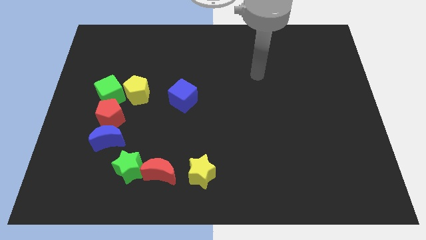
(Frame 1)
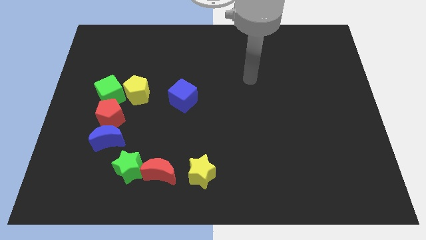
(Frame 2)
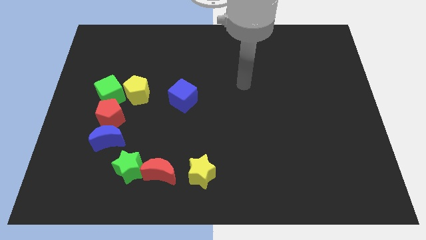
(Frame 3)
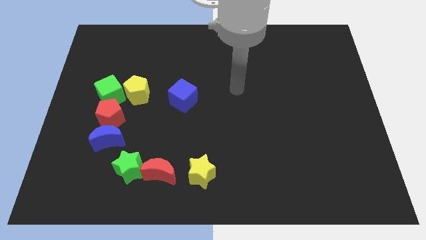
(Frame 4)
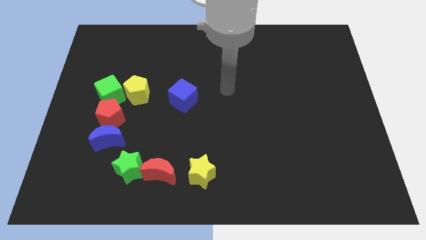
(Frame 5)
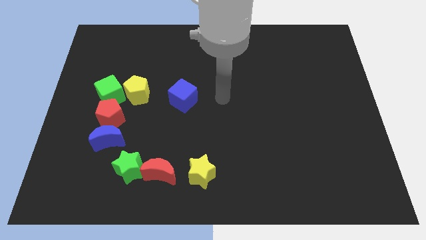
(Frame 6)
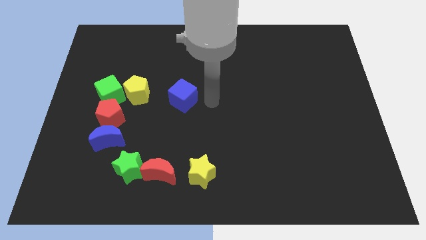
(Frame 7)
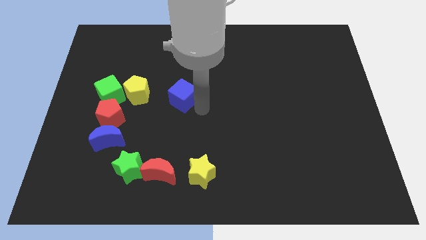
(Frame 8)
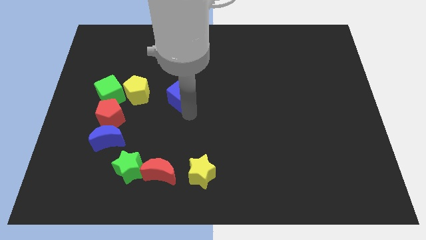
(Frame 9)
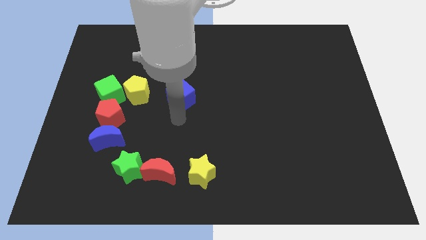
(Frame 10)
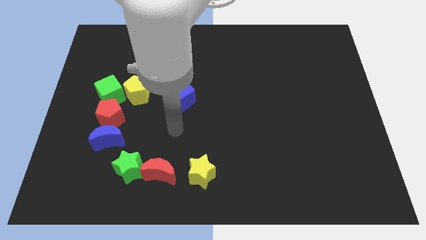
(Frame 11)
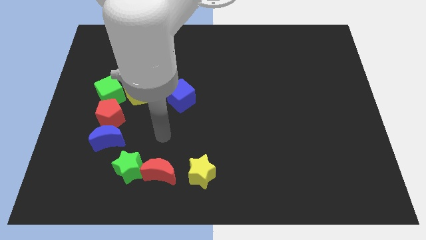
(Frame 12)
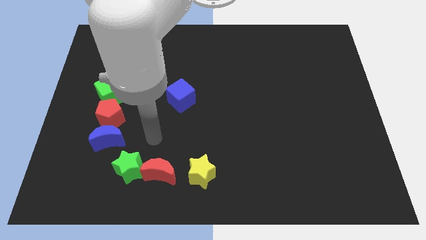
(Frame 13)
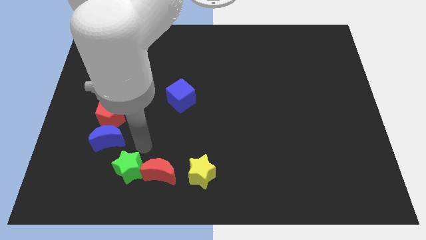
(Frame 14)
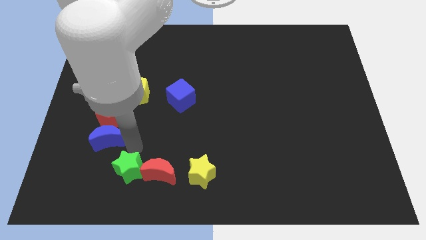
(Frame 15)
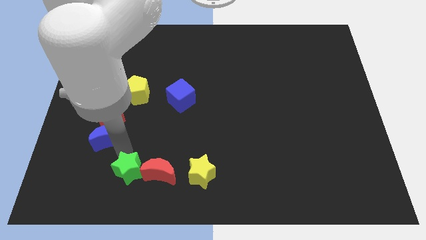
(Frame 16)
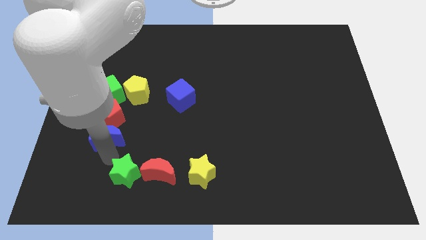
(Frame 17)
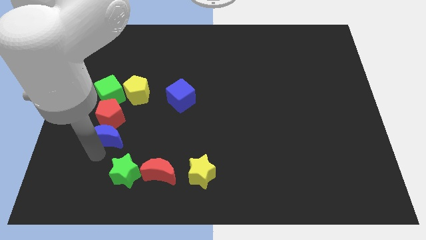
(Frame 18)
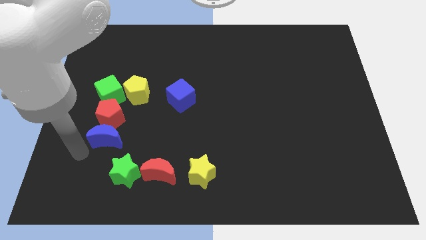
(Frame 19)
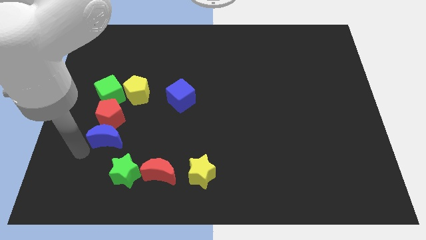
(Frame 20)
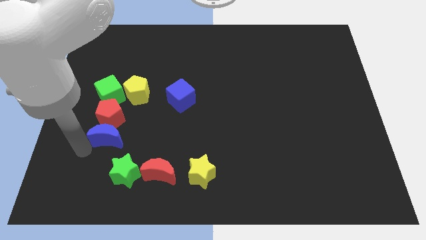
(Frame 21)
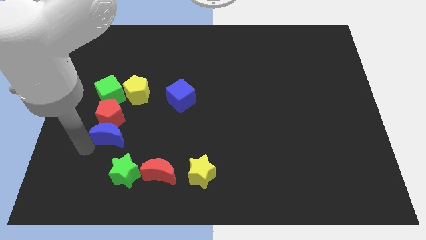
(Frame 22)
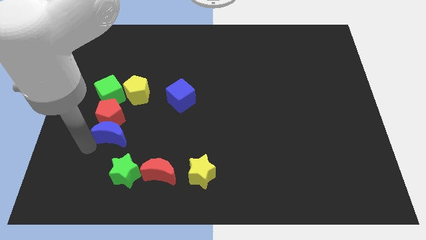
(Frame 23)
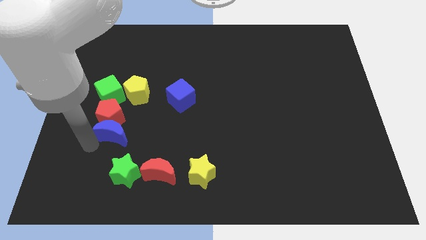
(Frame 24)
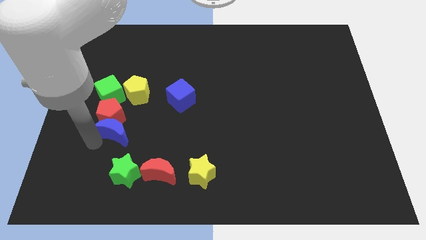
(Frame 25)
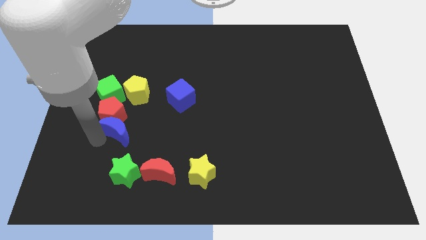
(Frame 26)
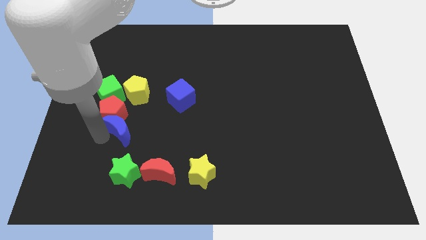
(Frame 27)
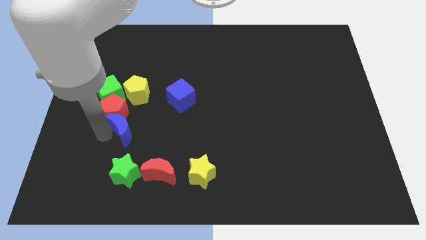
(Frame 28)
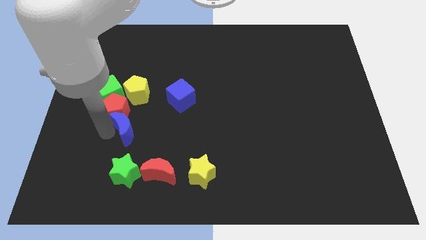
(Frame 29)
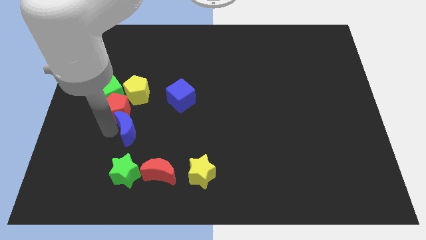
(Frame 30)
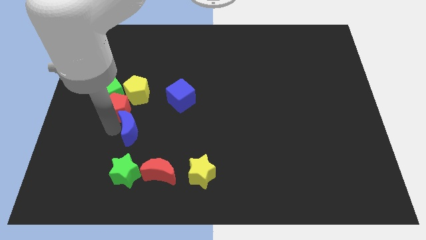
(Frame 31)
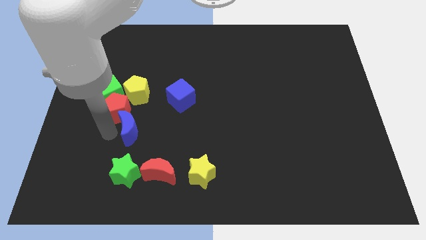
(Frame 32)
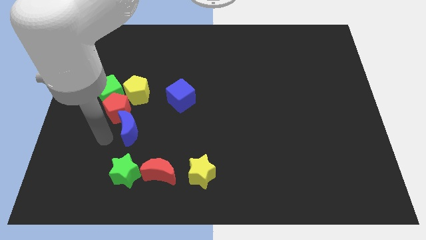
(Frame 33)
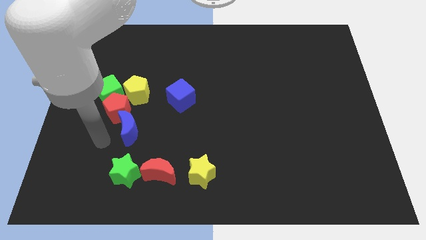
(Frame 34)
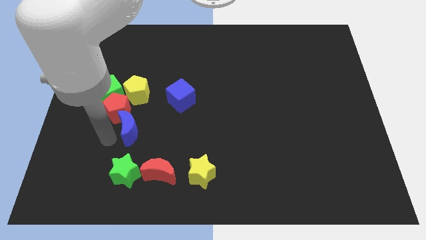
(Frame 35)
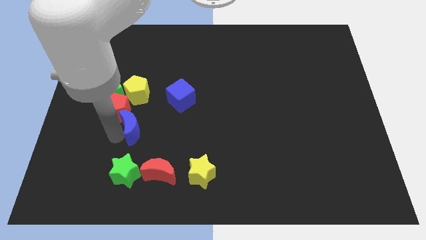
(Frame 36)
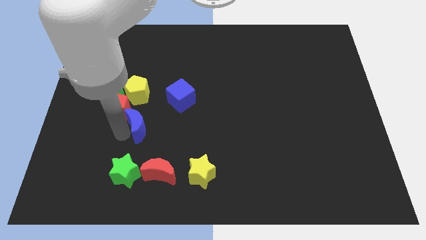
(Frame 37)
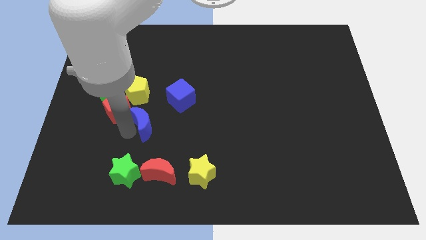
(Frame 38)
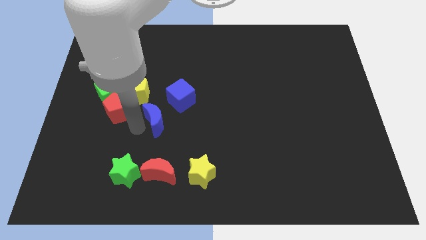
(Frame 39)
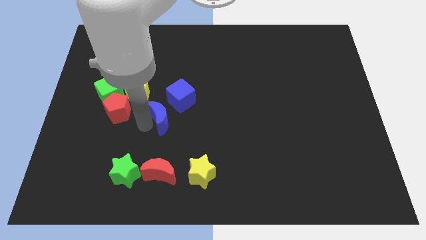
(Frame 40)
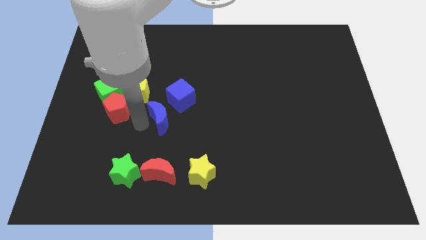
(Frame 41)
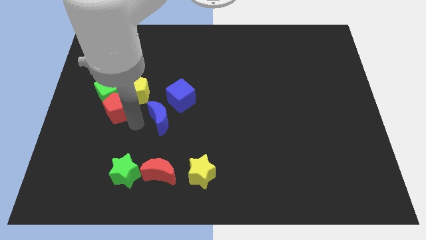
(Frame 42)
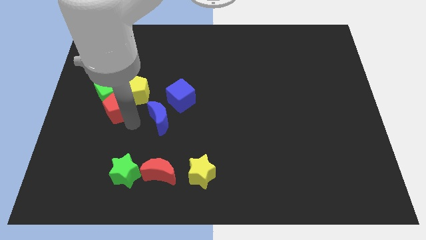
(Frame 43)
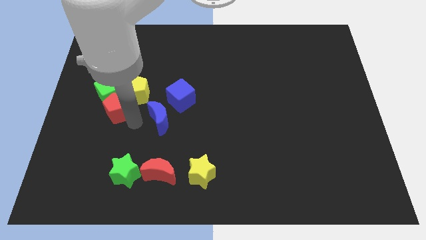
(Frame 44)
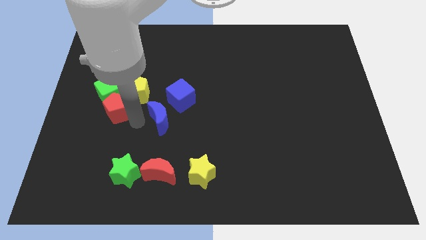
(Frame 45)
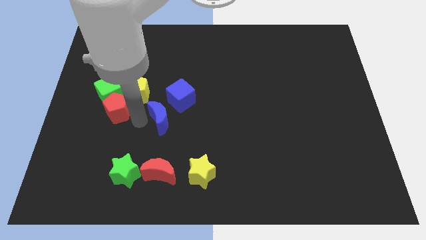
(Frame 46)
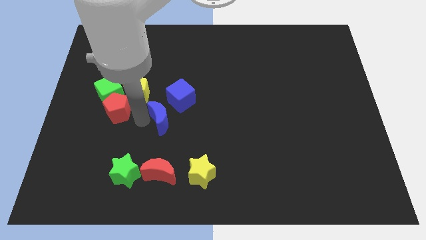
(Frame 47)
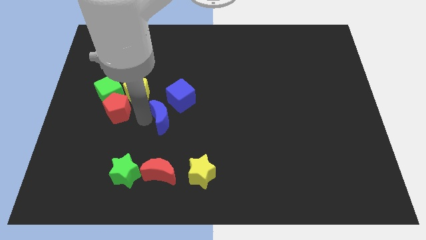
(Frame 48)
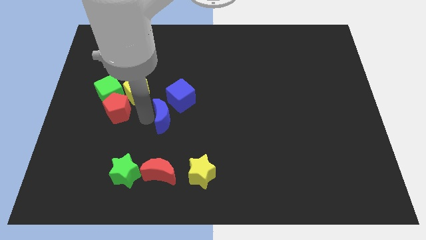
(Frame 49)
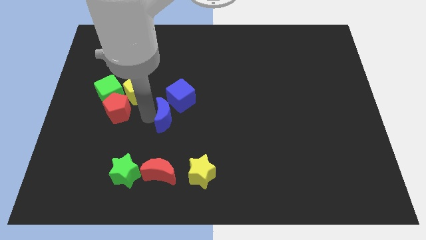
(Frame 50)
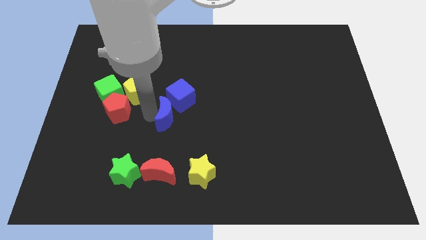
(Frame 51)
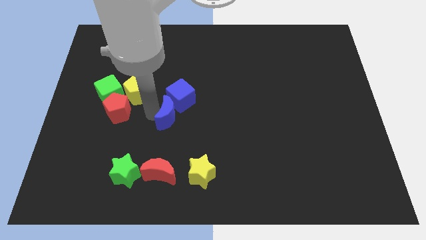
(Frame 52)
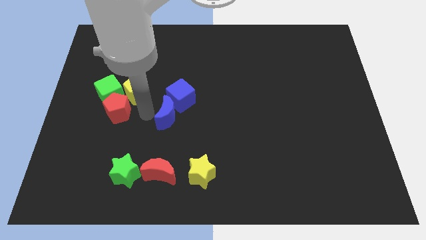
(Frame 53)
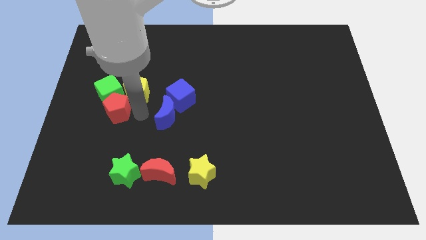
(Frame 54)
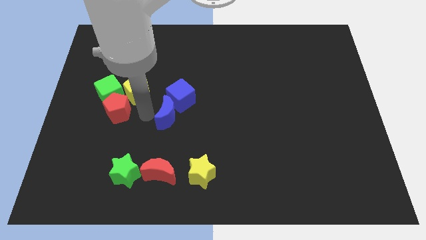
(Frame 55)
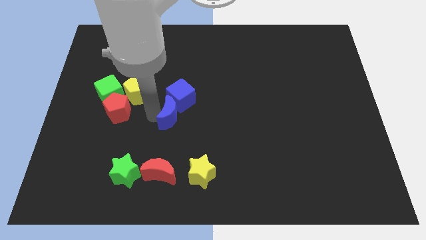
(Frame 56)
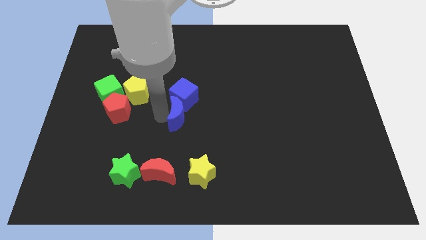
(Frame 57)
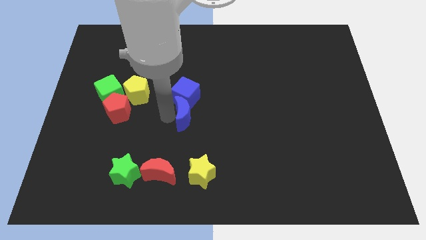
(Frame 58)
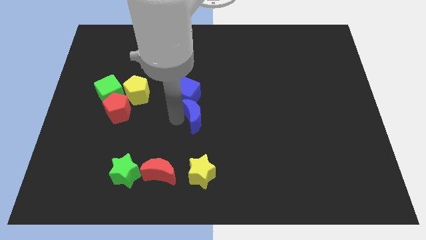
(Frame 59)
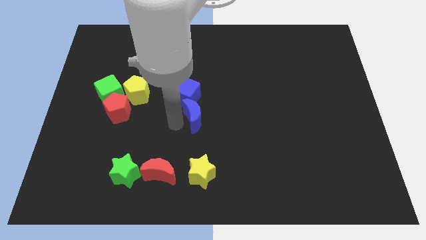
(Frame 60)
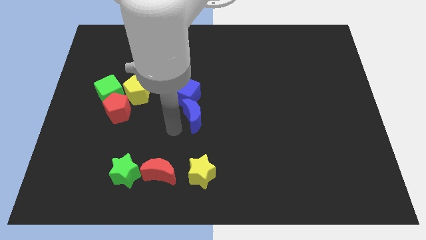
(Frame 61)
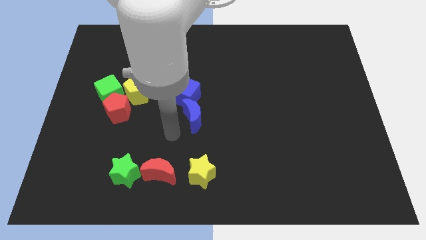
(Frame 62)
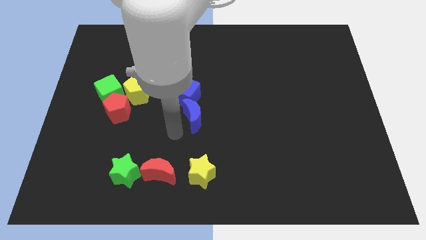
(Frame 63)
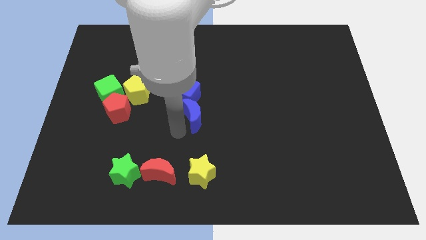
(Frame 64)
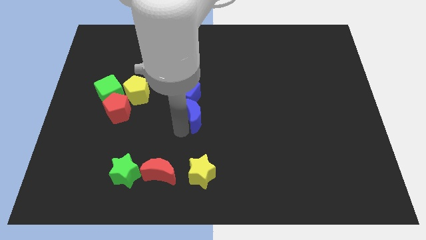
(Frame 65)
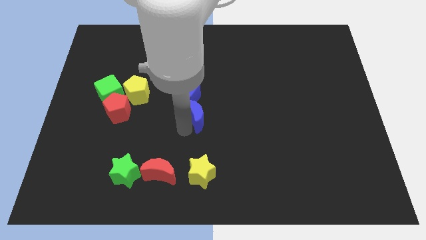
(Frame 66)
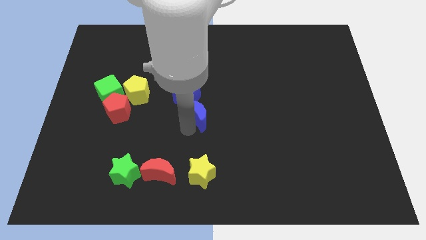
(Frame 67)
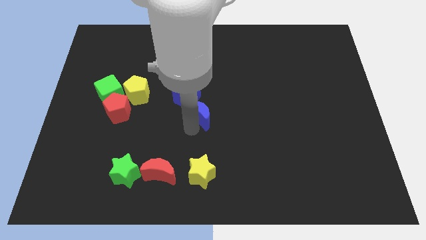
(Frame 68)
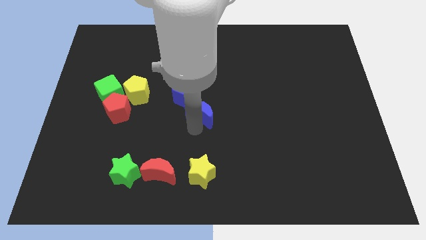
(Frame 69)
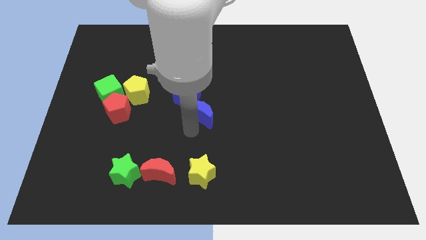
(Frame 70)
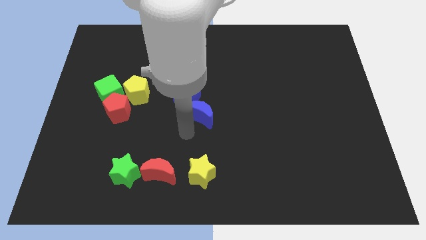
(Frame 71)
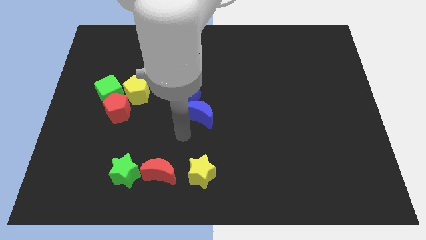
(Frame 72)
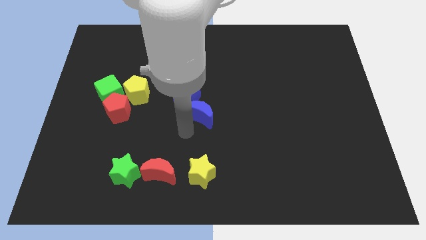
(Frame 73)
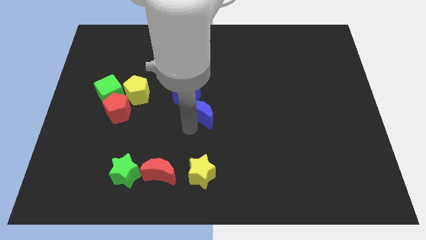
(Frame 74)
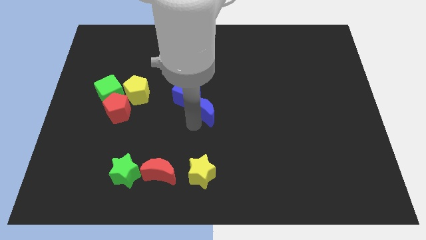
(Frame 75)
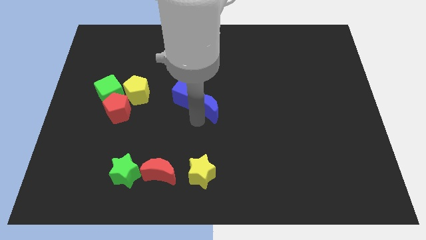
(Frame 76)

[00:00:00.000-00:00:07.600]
push the blue moon right of the blue cube
